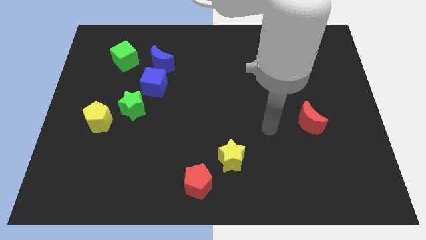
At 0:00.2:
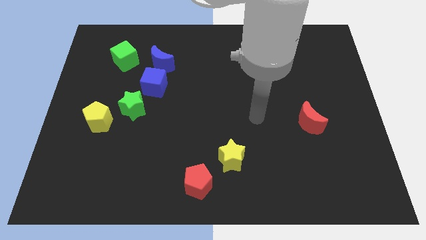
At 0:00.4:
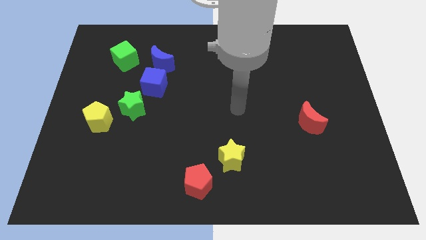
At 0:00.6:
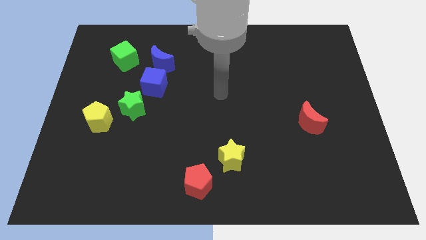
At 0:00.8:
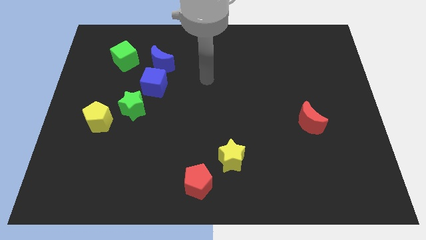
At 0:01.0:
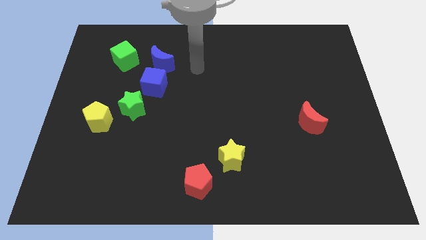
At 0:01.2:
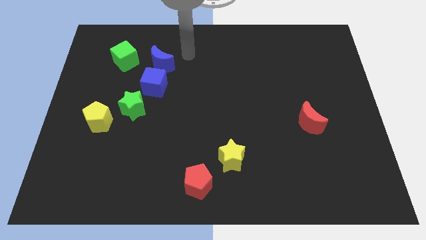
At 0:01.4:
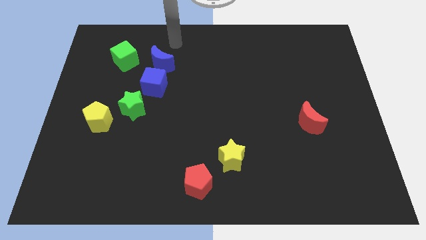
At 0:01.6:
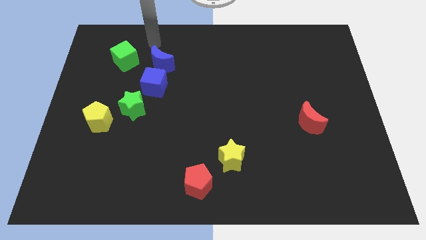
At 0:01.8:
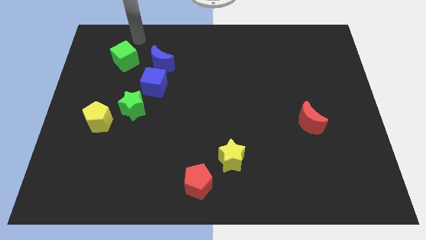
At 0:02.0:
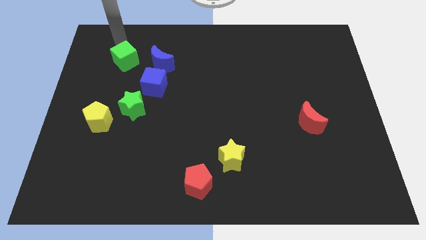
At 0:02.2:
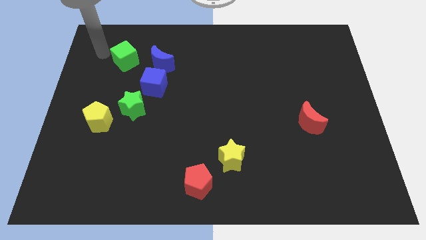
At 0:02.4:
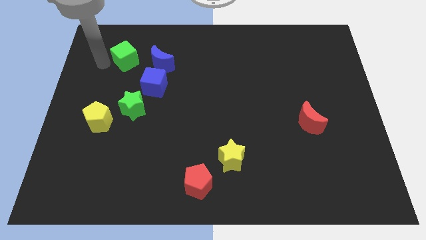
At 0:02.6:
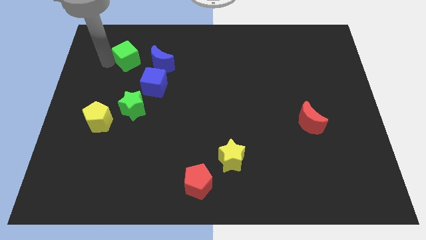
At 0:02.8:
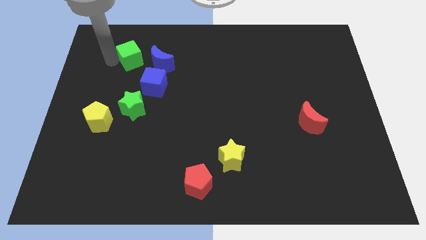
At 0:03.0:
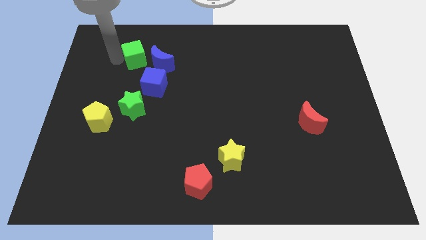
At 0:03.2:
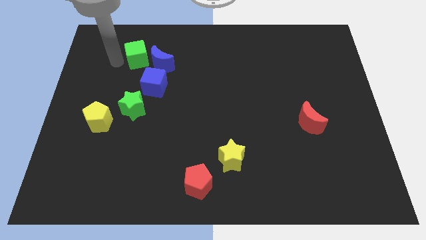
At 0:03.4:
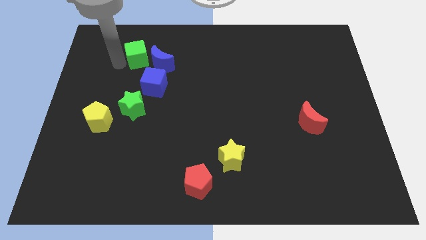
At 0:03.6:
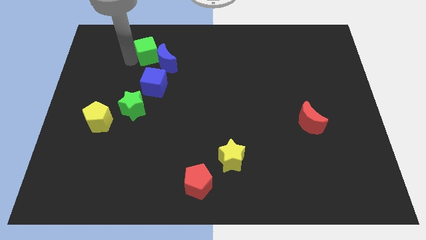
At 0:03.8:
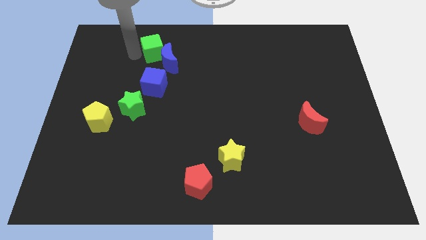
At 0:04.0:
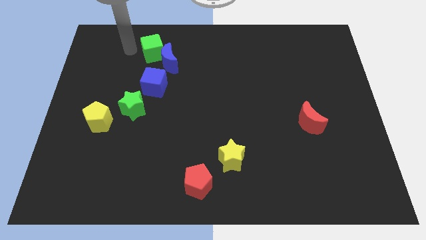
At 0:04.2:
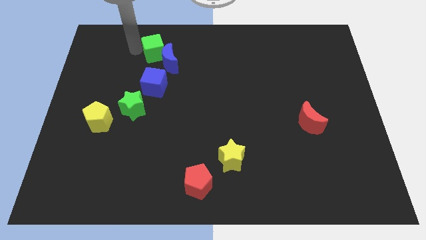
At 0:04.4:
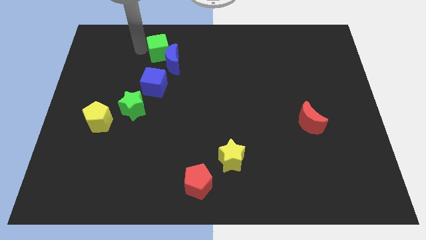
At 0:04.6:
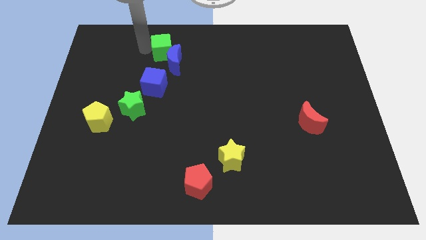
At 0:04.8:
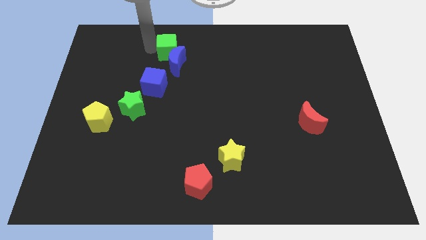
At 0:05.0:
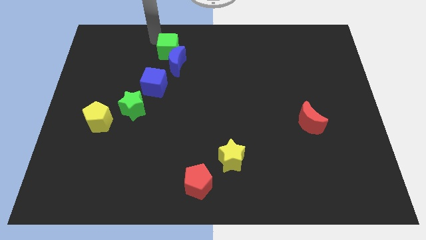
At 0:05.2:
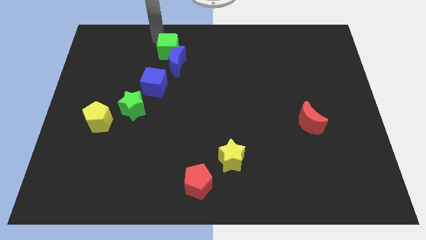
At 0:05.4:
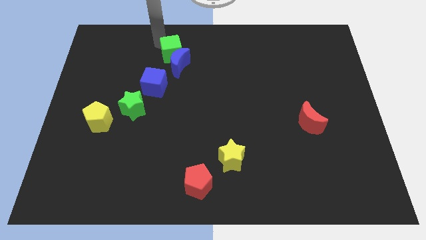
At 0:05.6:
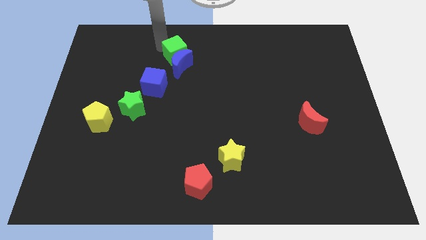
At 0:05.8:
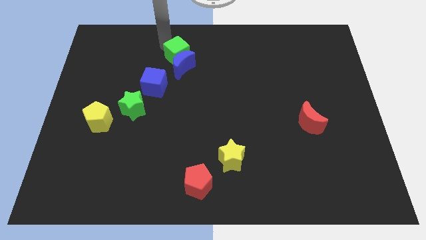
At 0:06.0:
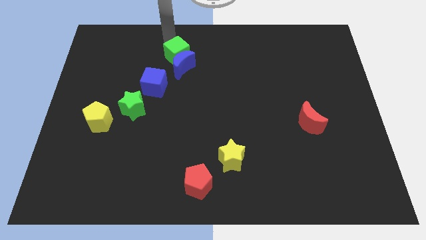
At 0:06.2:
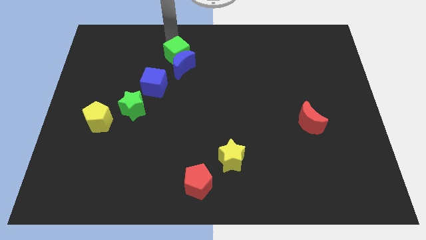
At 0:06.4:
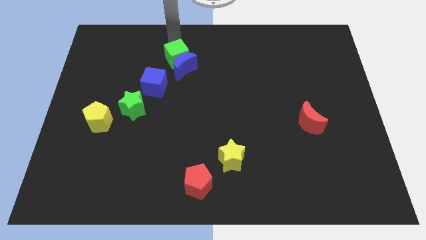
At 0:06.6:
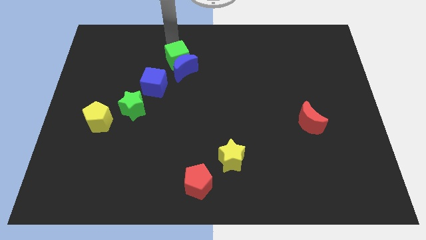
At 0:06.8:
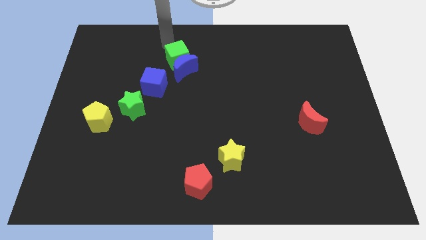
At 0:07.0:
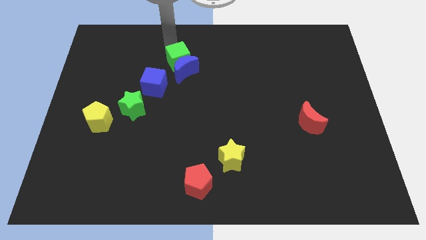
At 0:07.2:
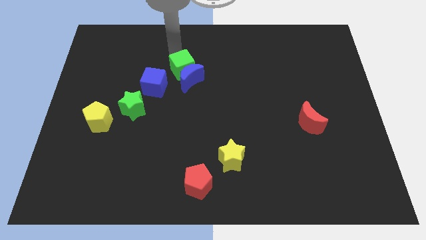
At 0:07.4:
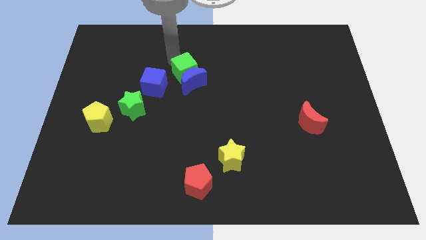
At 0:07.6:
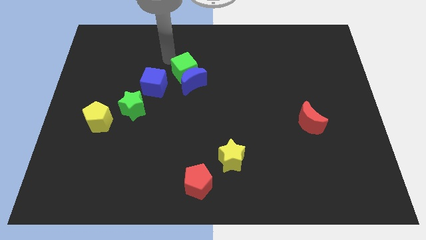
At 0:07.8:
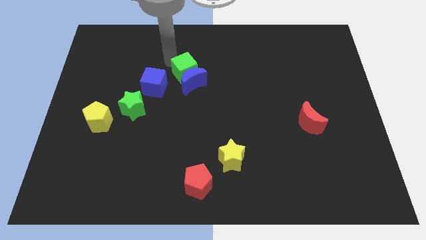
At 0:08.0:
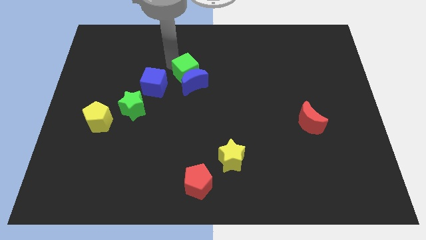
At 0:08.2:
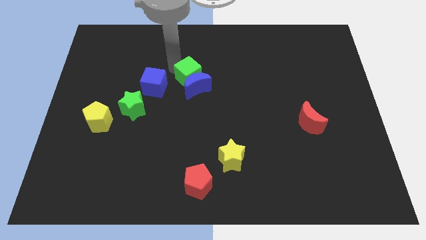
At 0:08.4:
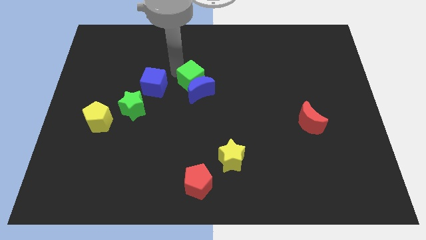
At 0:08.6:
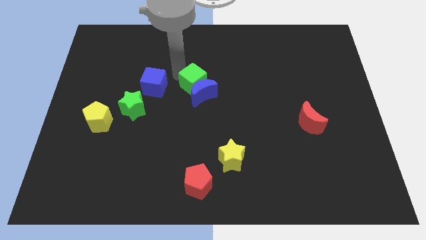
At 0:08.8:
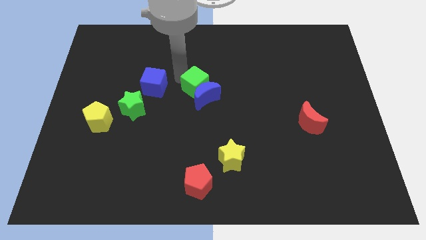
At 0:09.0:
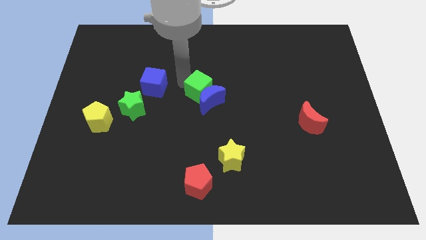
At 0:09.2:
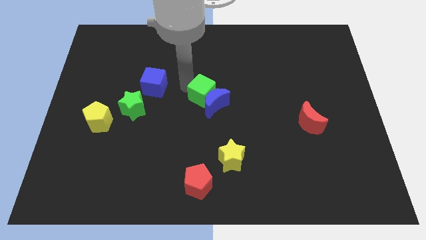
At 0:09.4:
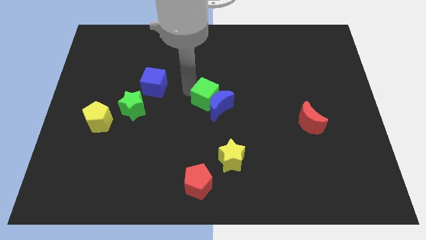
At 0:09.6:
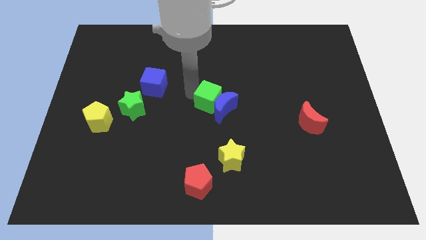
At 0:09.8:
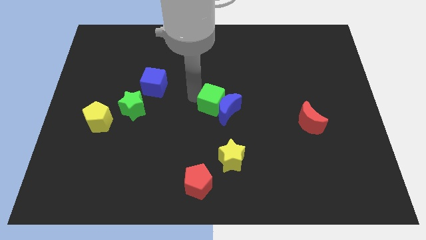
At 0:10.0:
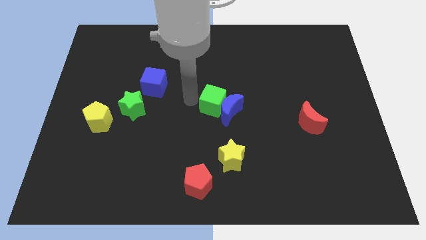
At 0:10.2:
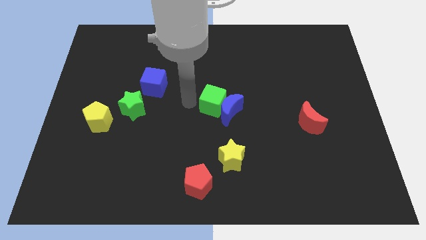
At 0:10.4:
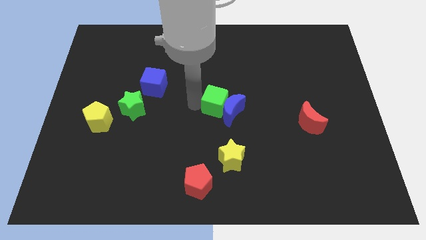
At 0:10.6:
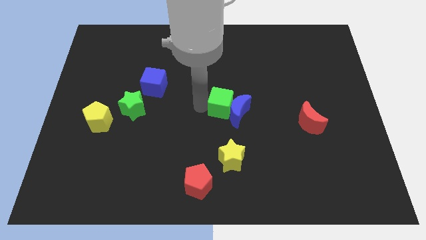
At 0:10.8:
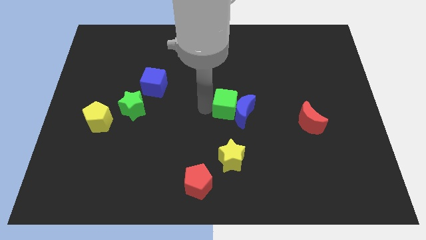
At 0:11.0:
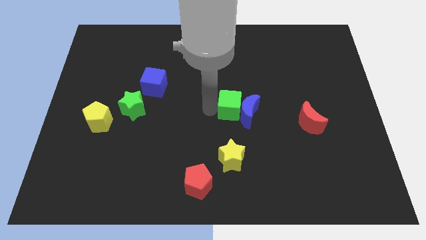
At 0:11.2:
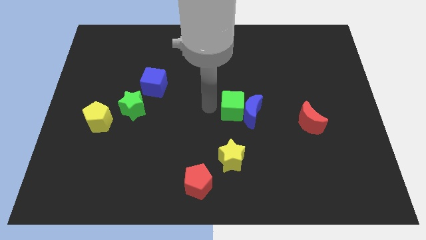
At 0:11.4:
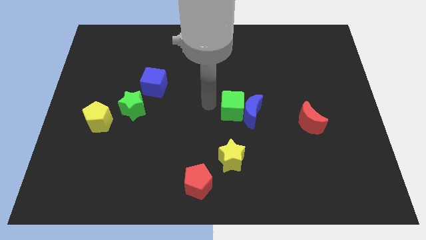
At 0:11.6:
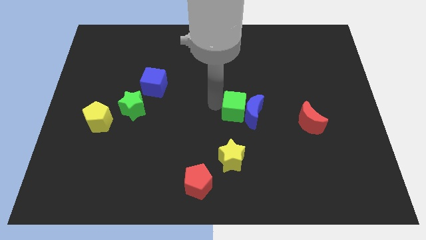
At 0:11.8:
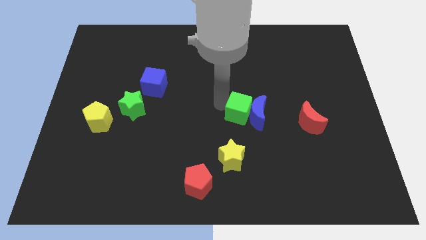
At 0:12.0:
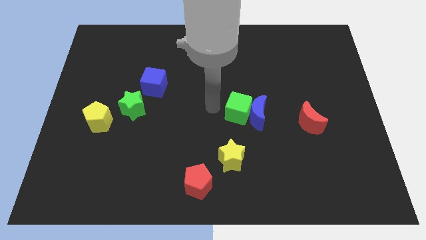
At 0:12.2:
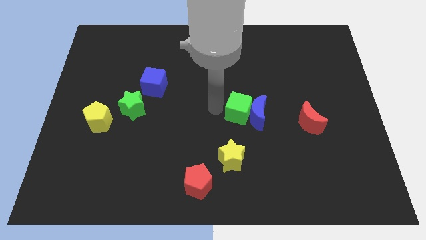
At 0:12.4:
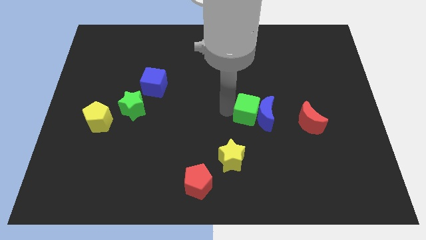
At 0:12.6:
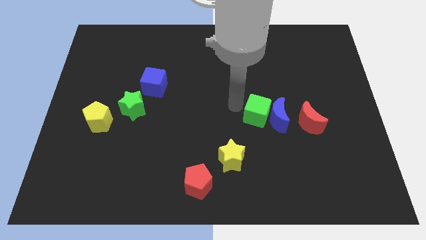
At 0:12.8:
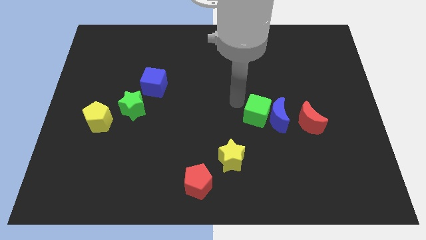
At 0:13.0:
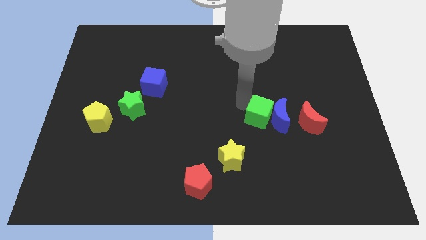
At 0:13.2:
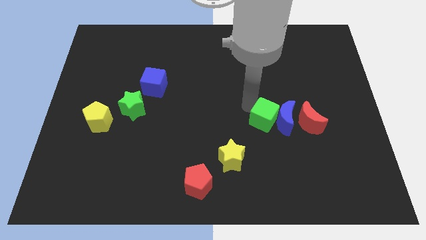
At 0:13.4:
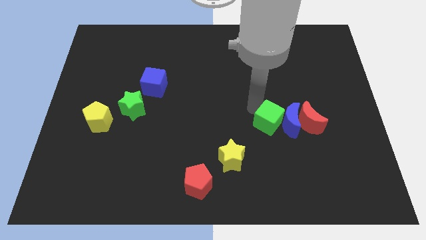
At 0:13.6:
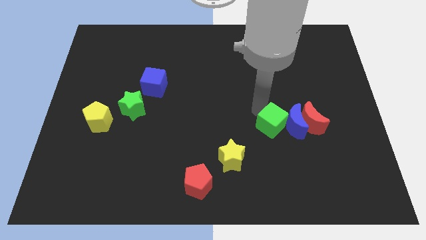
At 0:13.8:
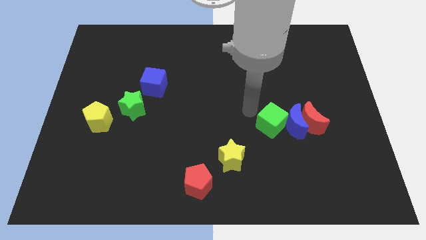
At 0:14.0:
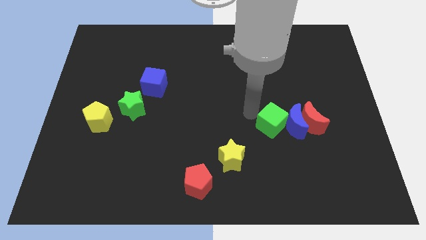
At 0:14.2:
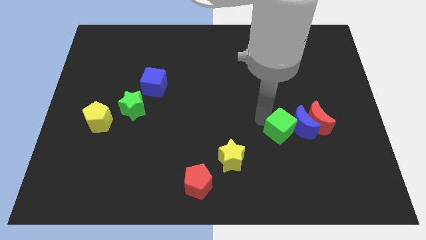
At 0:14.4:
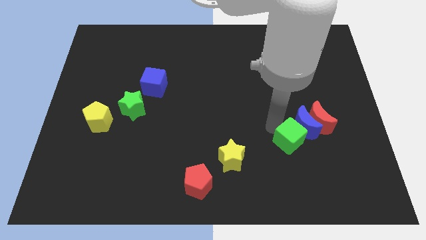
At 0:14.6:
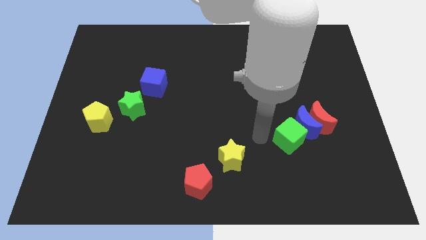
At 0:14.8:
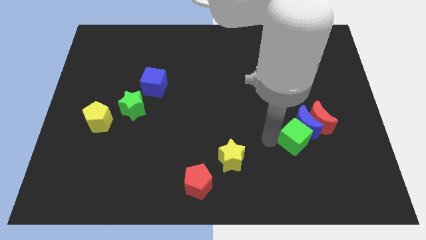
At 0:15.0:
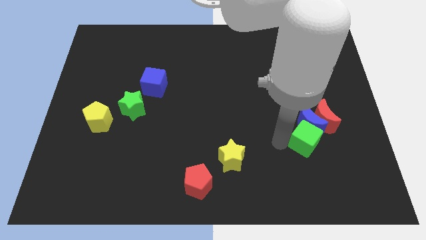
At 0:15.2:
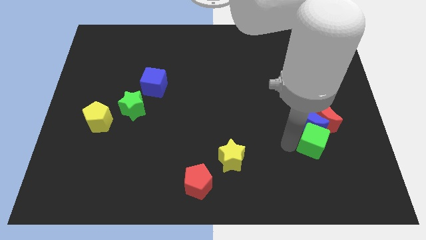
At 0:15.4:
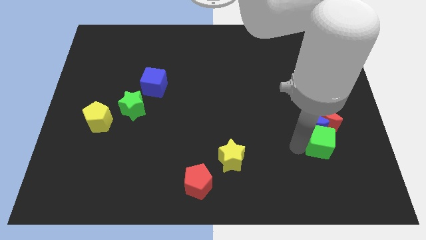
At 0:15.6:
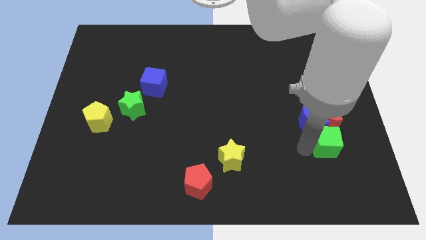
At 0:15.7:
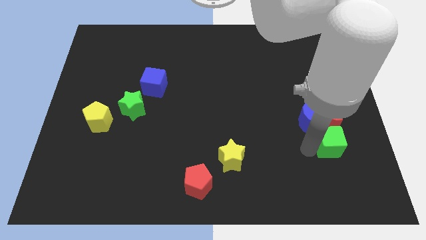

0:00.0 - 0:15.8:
move the green cube to the bottom right side of the red moon
